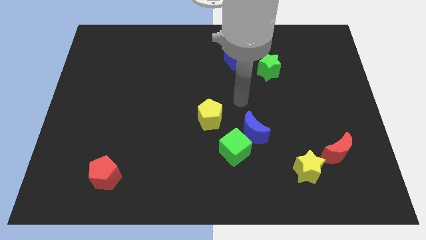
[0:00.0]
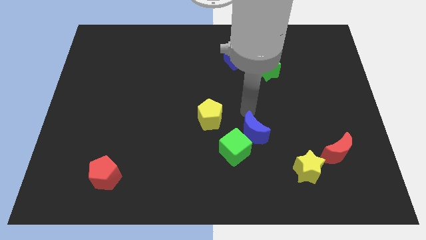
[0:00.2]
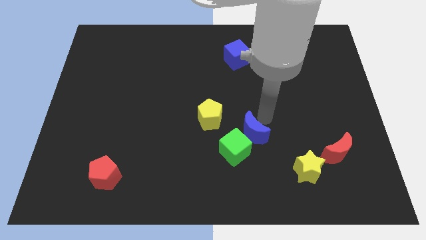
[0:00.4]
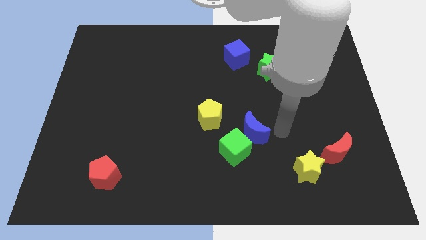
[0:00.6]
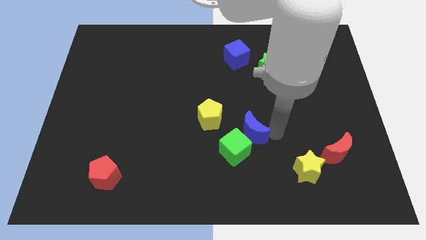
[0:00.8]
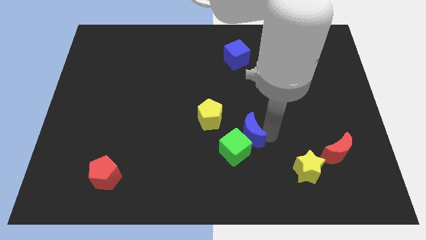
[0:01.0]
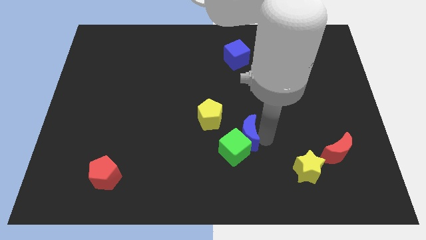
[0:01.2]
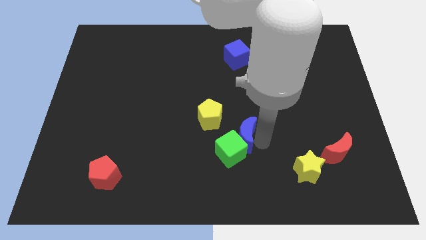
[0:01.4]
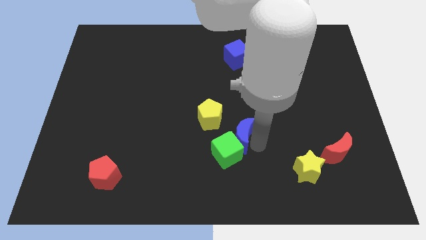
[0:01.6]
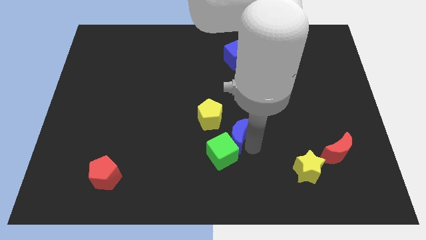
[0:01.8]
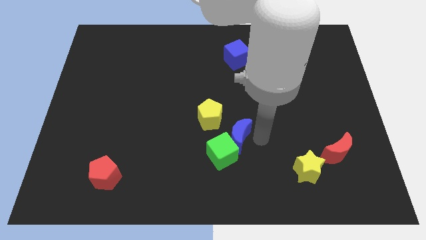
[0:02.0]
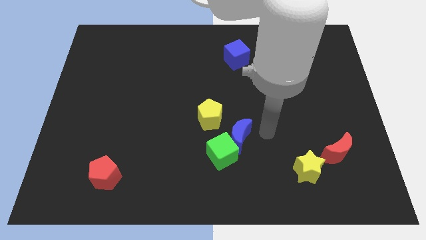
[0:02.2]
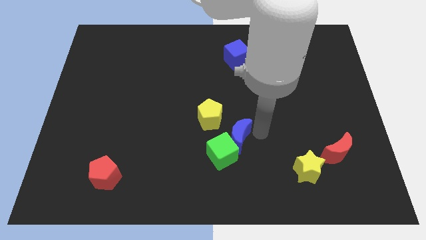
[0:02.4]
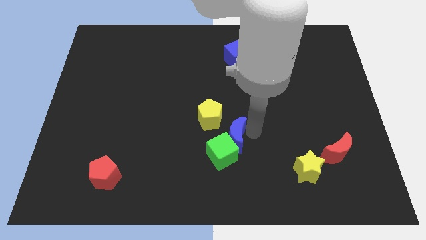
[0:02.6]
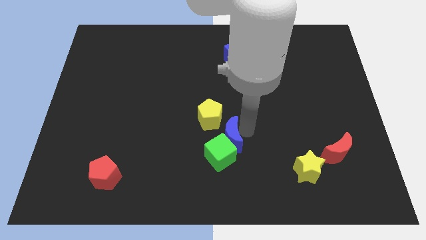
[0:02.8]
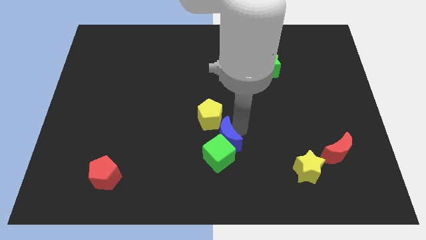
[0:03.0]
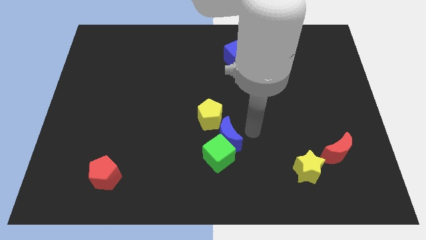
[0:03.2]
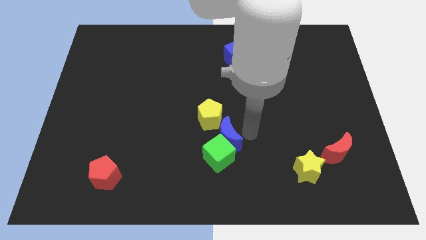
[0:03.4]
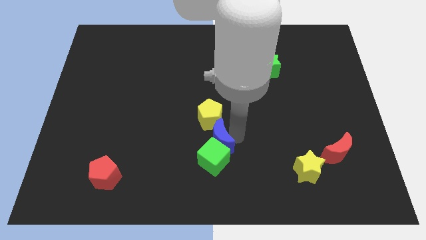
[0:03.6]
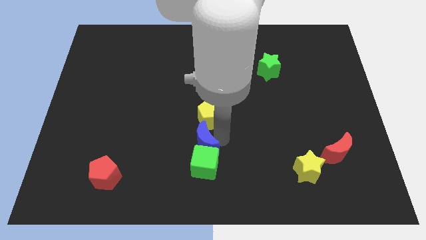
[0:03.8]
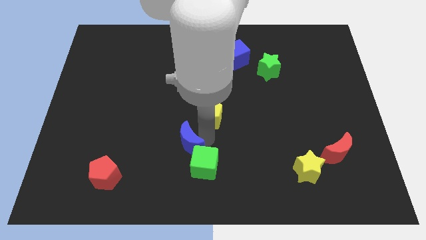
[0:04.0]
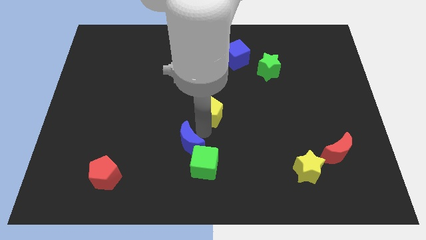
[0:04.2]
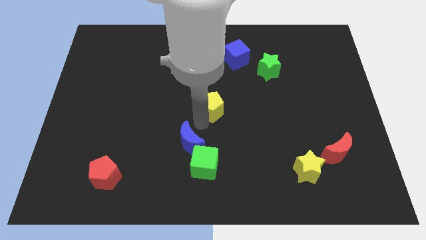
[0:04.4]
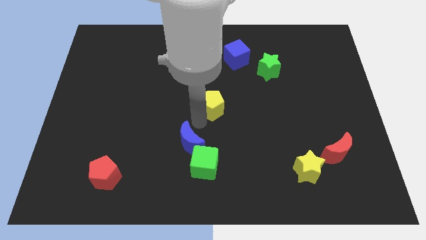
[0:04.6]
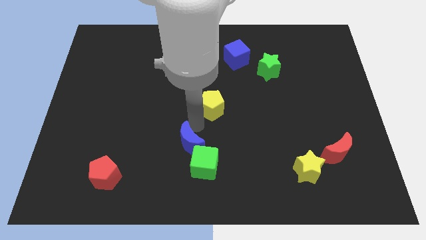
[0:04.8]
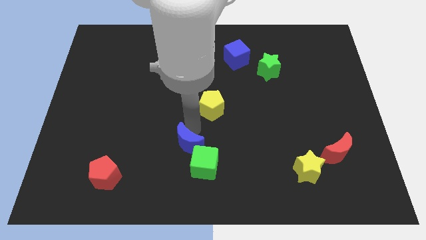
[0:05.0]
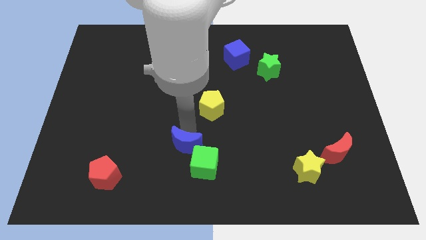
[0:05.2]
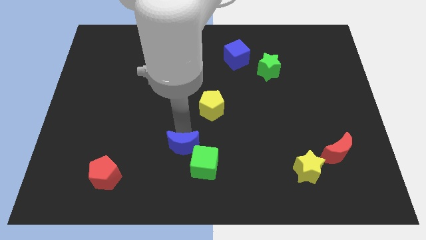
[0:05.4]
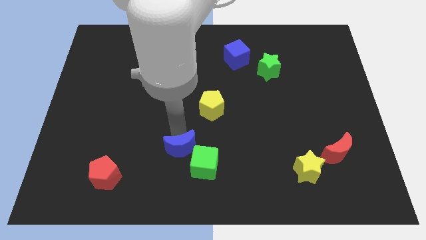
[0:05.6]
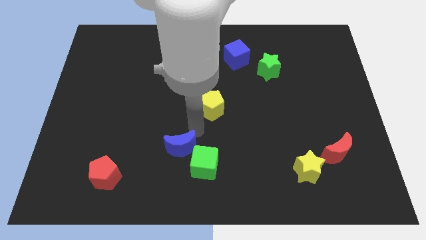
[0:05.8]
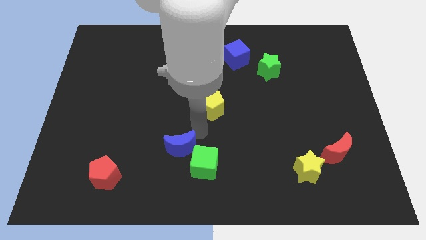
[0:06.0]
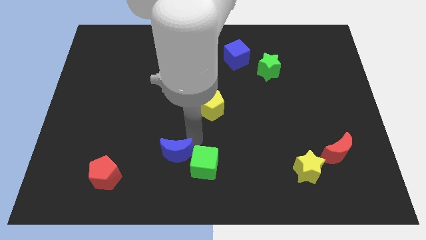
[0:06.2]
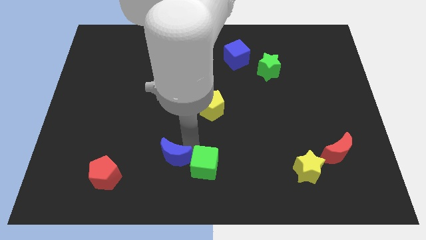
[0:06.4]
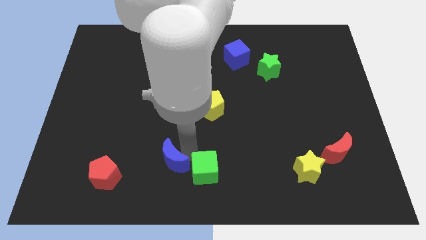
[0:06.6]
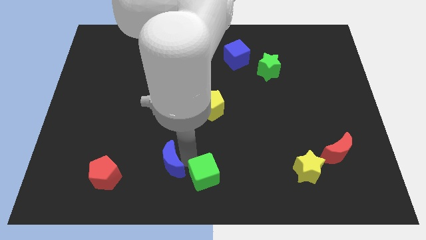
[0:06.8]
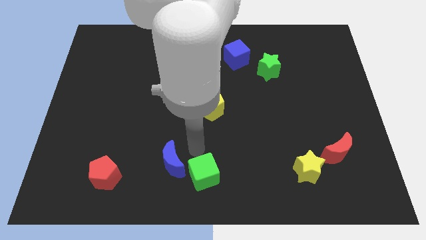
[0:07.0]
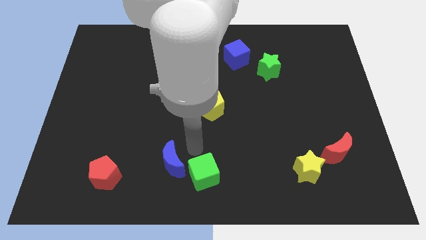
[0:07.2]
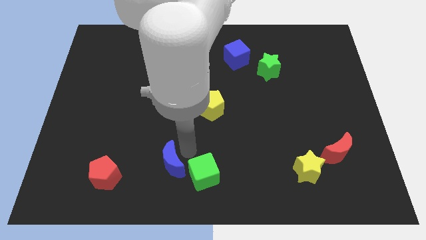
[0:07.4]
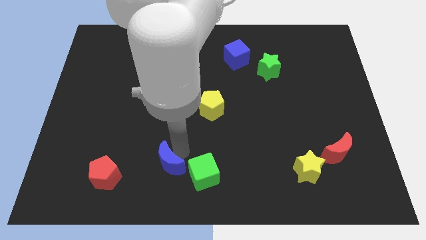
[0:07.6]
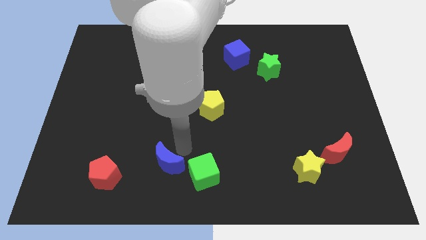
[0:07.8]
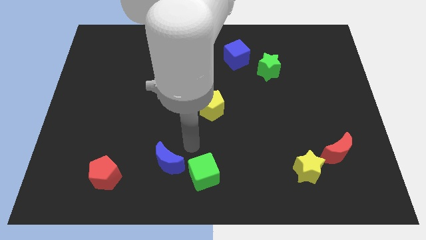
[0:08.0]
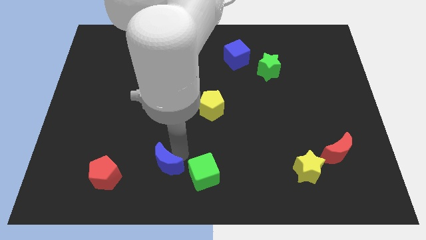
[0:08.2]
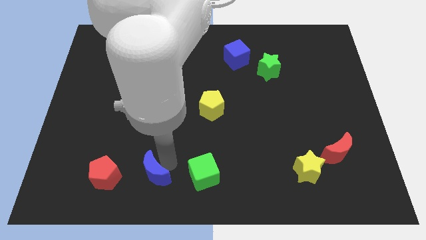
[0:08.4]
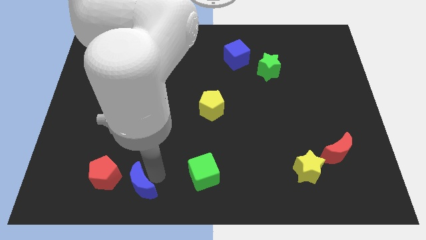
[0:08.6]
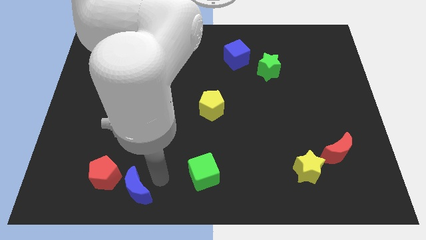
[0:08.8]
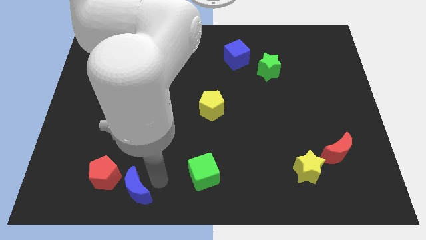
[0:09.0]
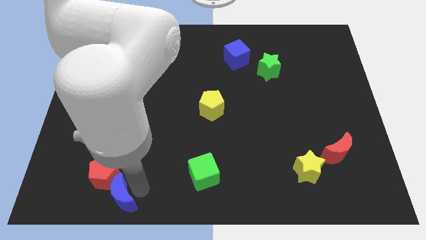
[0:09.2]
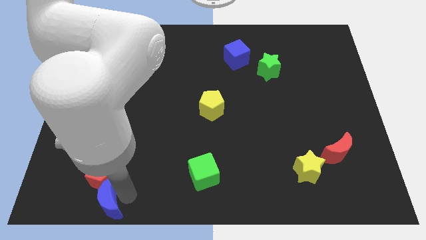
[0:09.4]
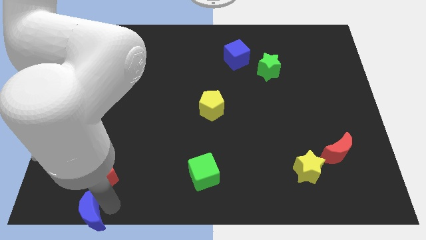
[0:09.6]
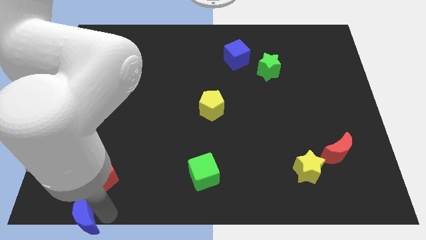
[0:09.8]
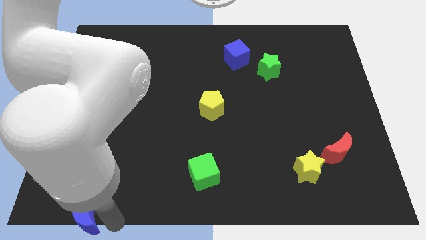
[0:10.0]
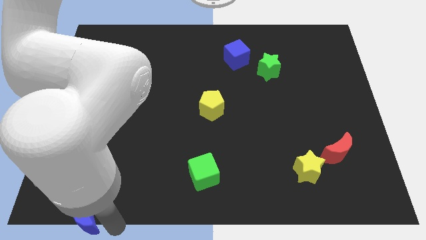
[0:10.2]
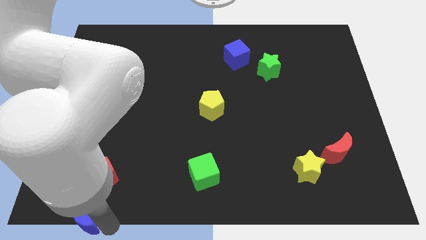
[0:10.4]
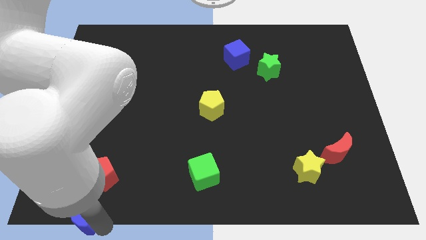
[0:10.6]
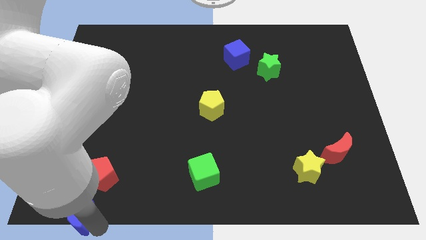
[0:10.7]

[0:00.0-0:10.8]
push the blue moon to the bottom left corner

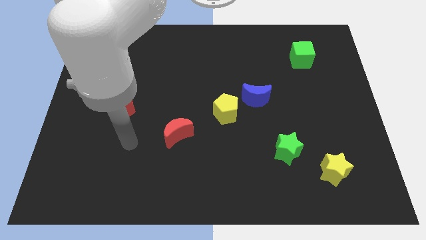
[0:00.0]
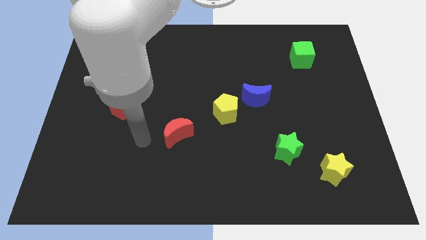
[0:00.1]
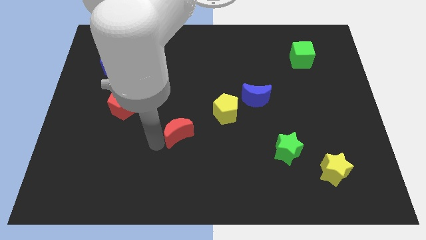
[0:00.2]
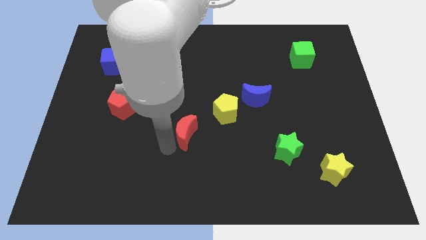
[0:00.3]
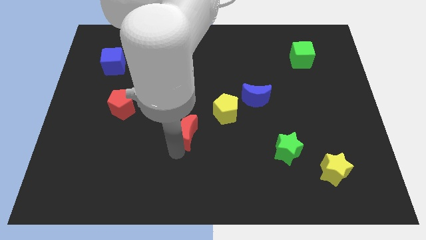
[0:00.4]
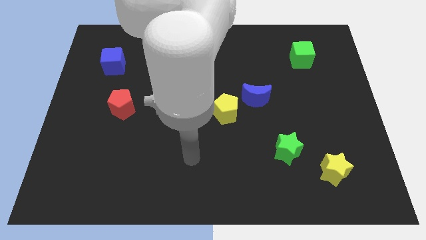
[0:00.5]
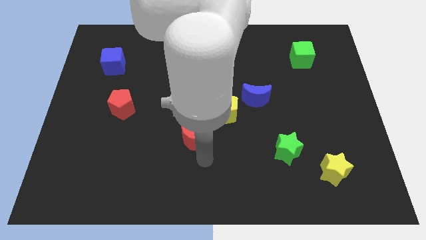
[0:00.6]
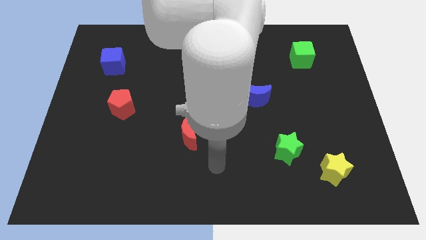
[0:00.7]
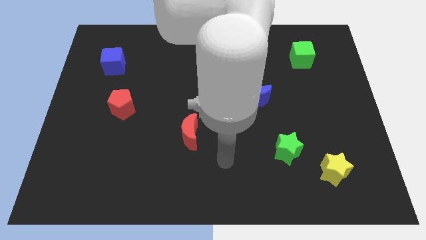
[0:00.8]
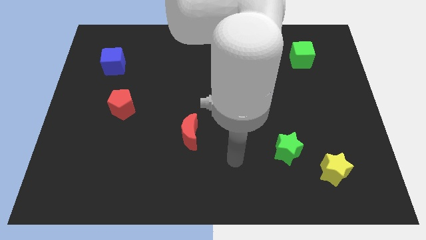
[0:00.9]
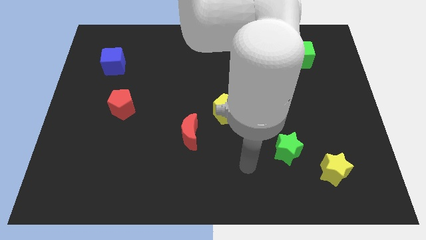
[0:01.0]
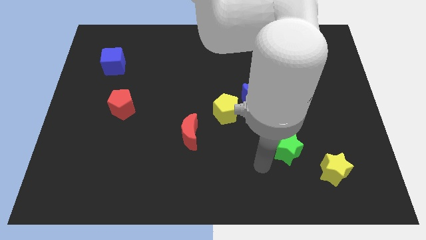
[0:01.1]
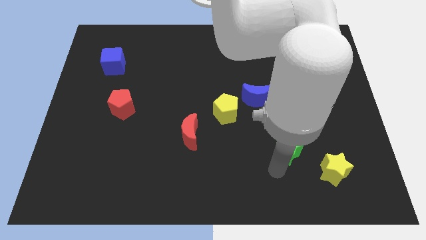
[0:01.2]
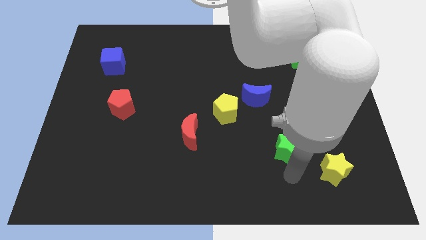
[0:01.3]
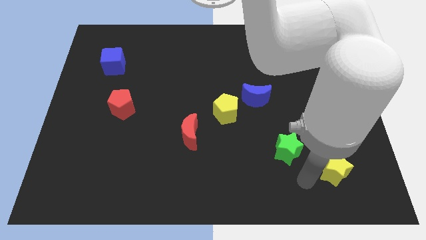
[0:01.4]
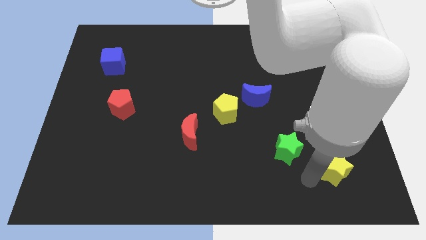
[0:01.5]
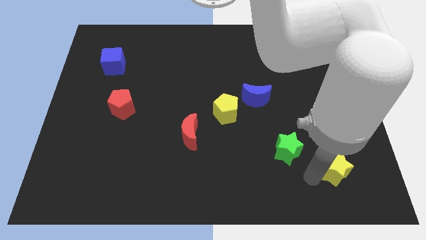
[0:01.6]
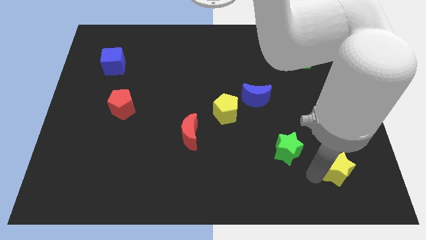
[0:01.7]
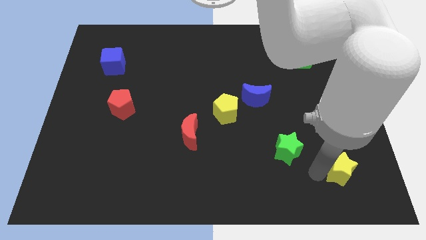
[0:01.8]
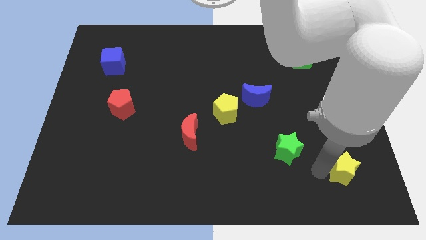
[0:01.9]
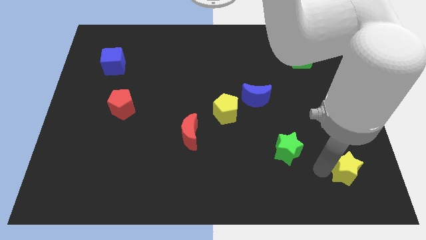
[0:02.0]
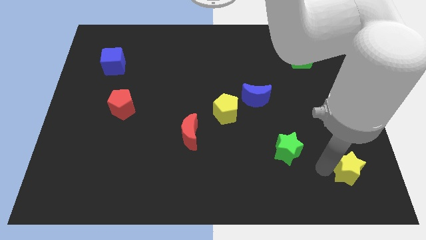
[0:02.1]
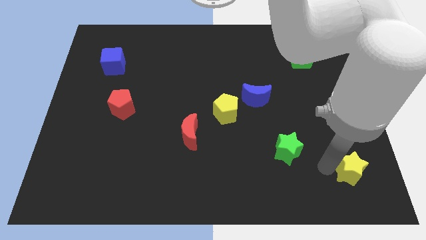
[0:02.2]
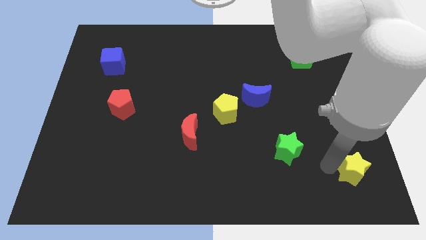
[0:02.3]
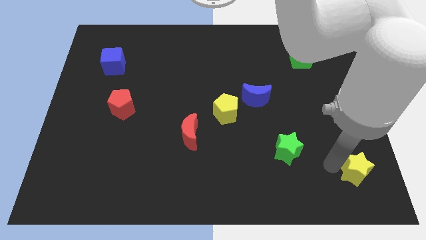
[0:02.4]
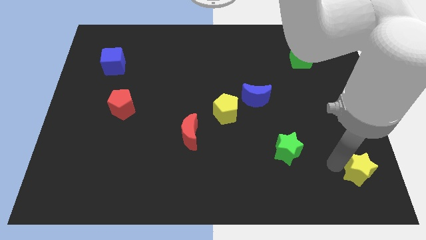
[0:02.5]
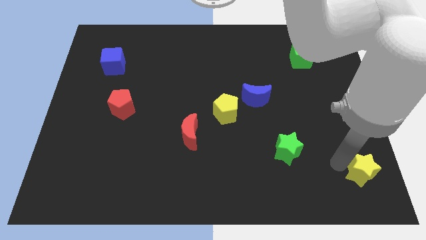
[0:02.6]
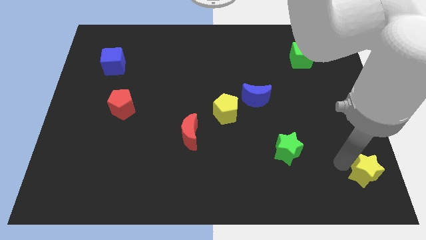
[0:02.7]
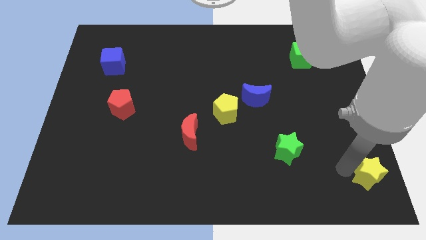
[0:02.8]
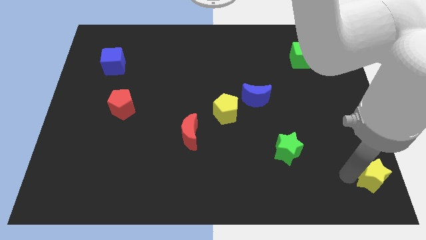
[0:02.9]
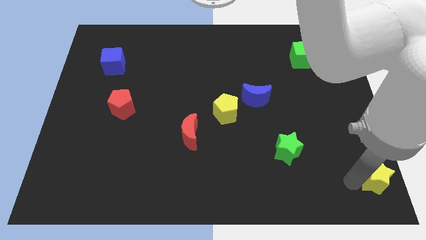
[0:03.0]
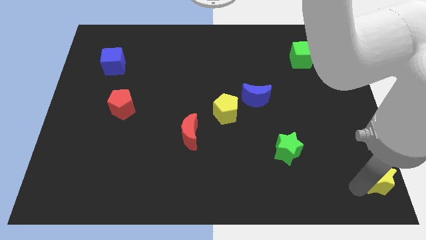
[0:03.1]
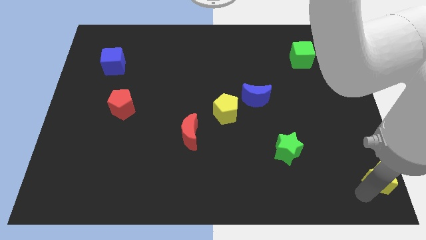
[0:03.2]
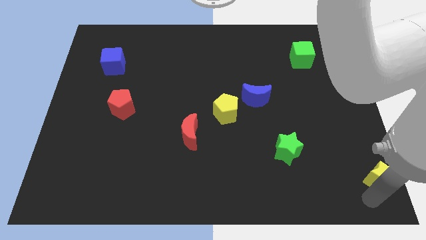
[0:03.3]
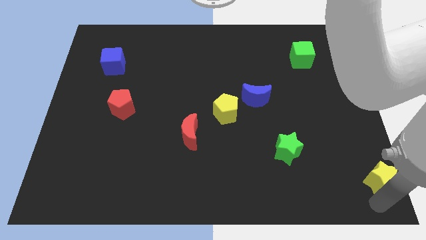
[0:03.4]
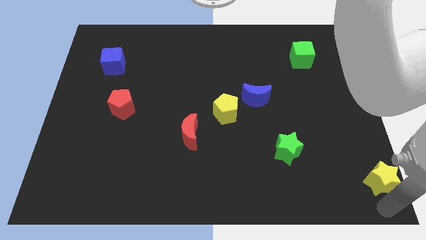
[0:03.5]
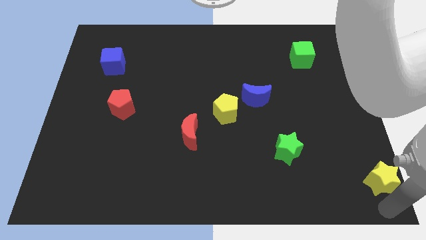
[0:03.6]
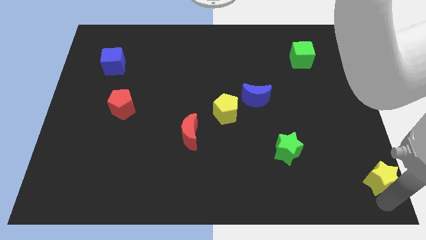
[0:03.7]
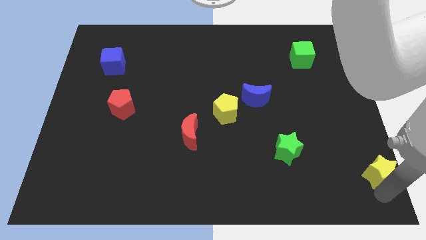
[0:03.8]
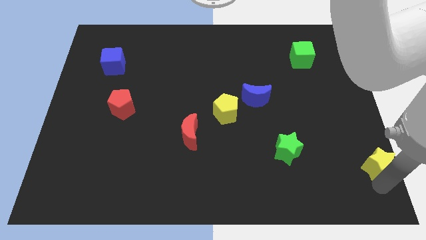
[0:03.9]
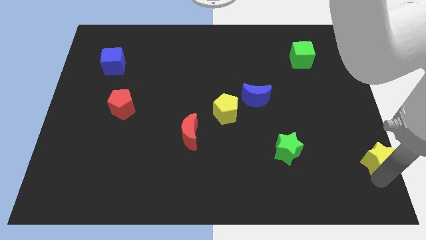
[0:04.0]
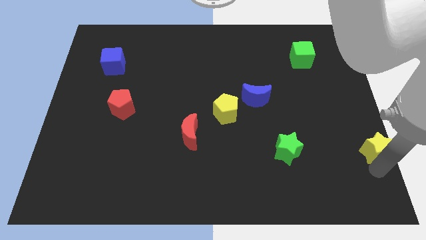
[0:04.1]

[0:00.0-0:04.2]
push the yellow star to the right side
